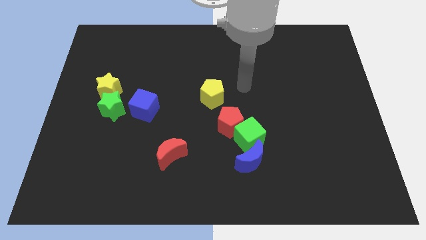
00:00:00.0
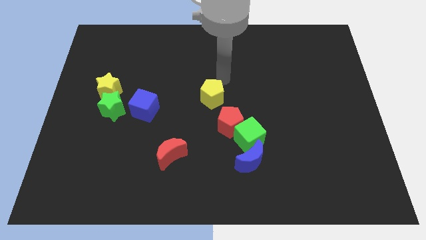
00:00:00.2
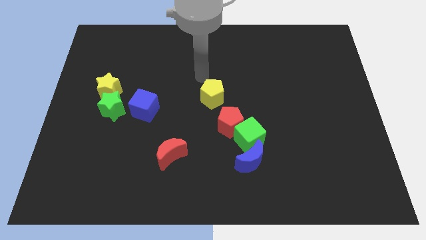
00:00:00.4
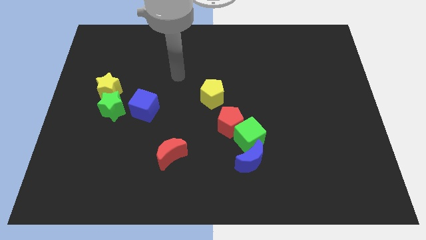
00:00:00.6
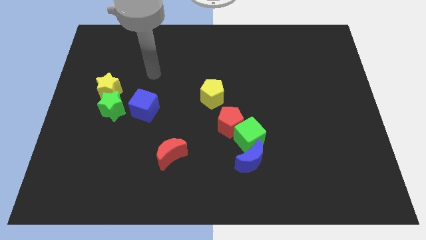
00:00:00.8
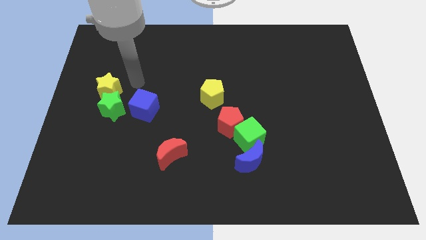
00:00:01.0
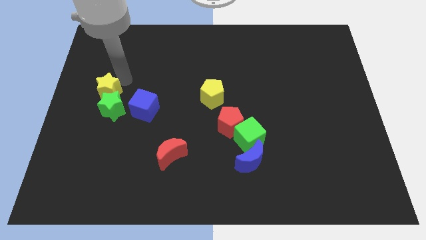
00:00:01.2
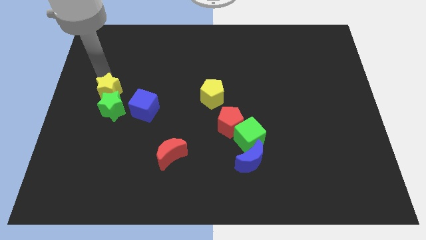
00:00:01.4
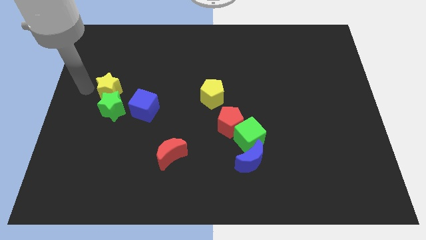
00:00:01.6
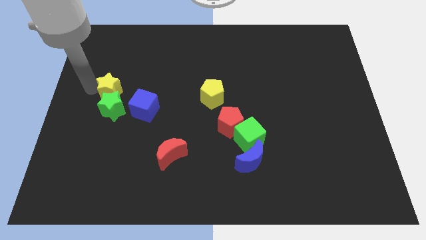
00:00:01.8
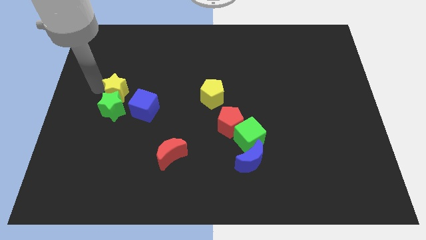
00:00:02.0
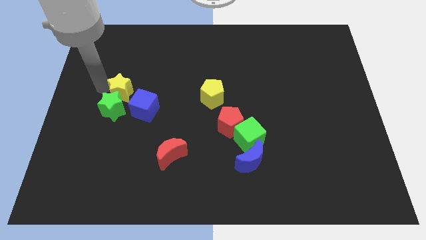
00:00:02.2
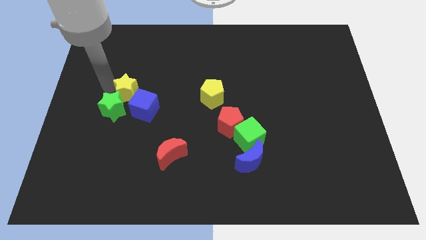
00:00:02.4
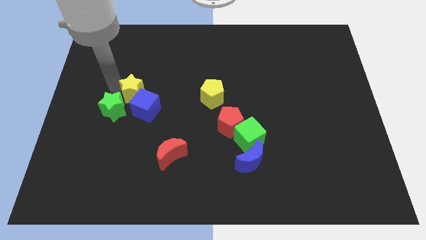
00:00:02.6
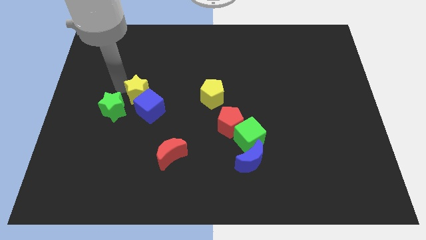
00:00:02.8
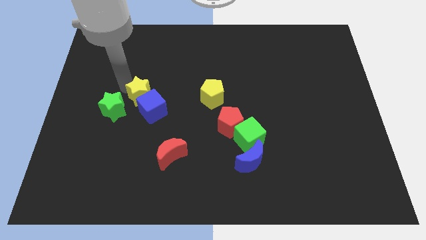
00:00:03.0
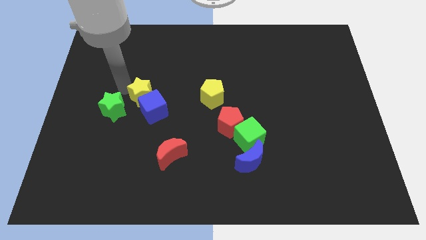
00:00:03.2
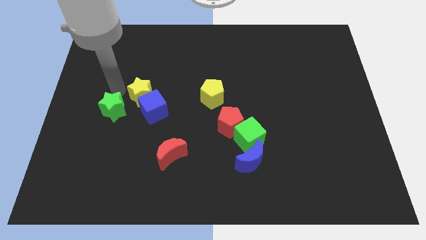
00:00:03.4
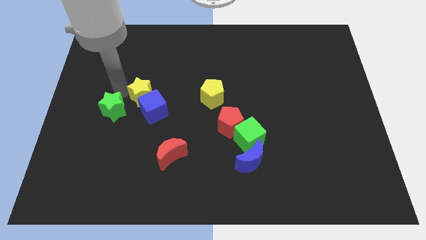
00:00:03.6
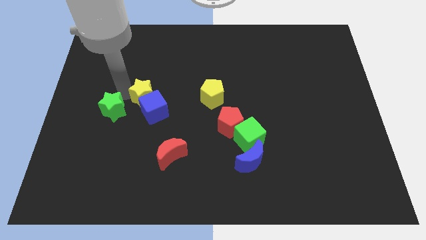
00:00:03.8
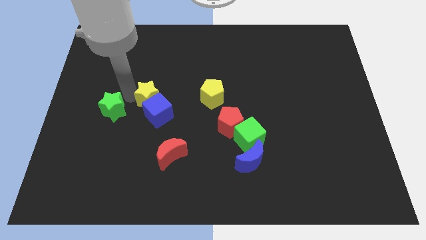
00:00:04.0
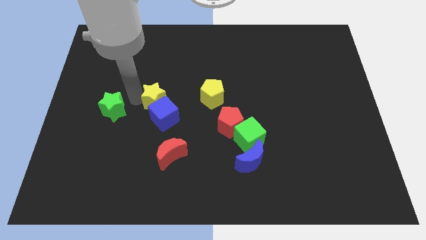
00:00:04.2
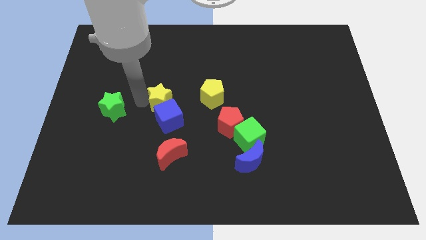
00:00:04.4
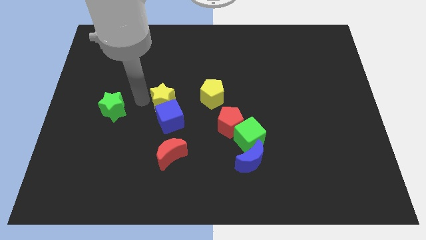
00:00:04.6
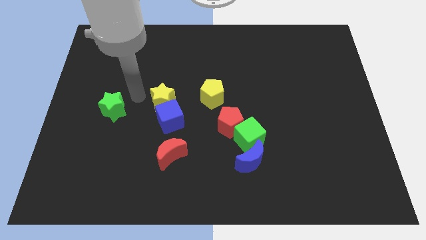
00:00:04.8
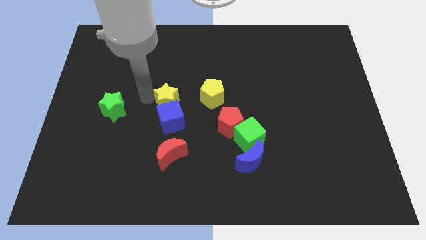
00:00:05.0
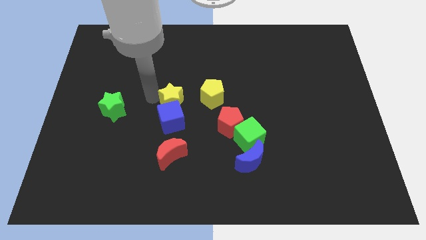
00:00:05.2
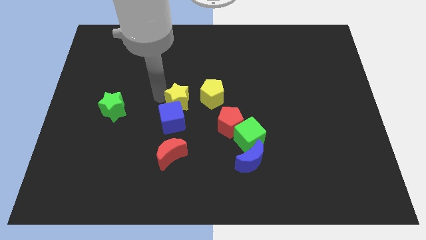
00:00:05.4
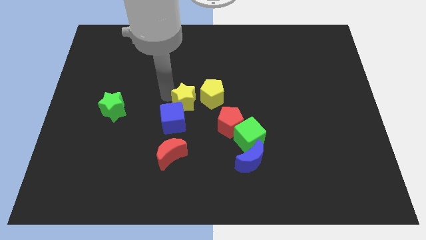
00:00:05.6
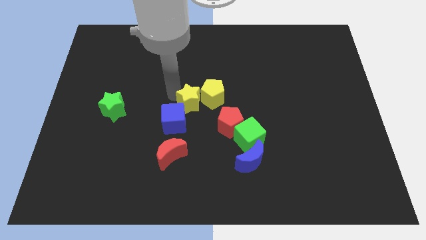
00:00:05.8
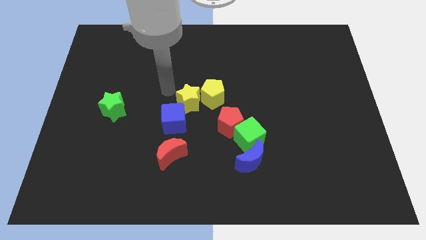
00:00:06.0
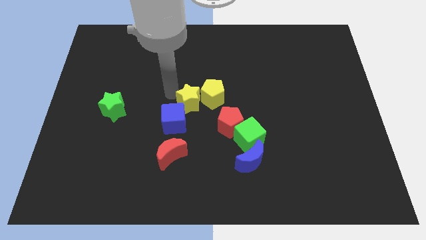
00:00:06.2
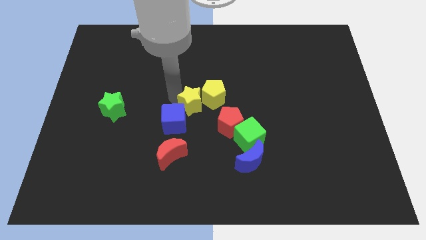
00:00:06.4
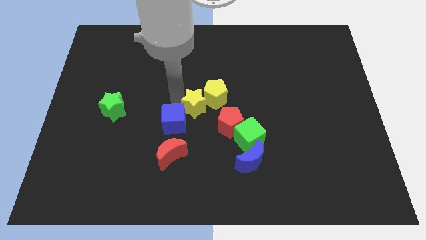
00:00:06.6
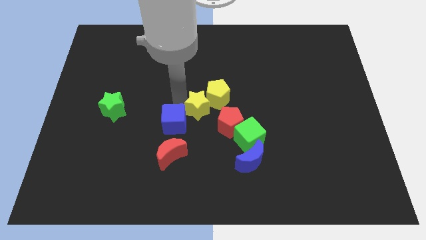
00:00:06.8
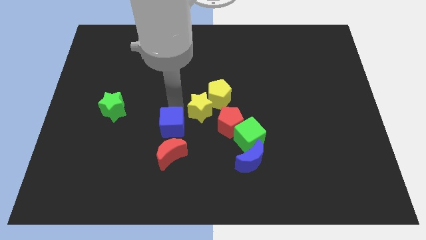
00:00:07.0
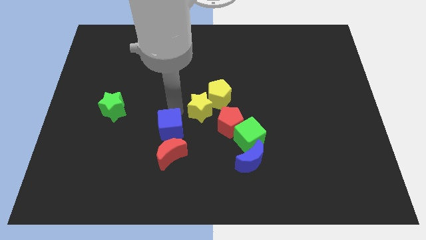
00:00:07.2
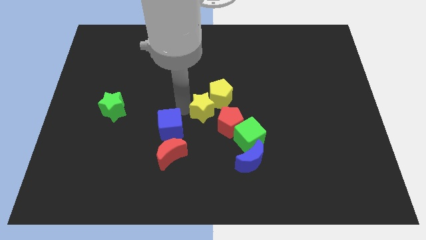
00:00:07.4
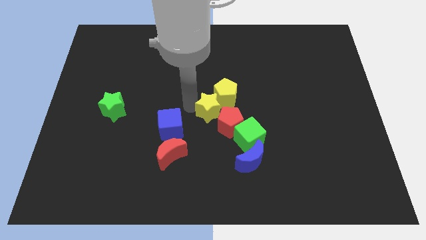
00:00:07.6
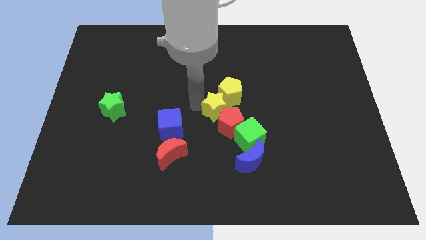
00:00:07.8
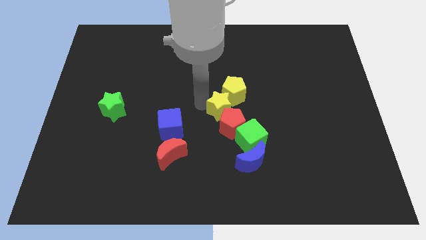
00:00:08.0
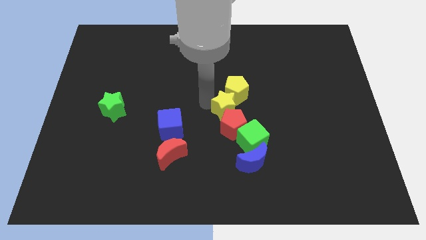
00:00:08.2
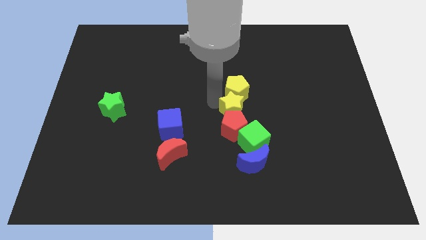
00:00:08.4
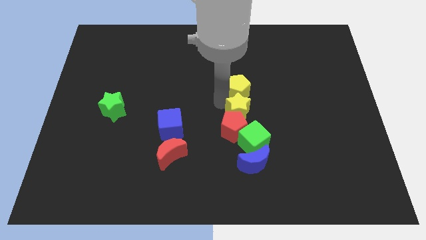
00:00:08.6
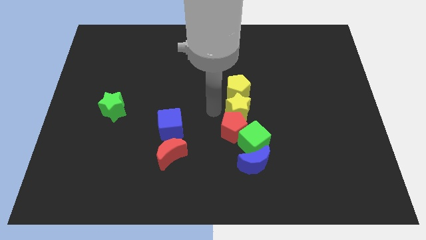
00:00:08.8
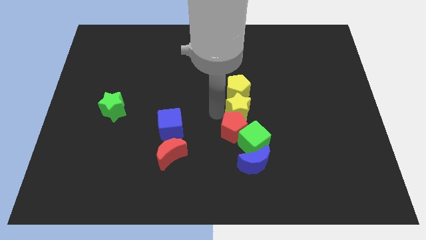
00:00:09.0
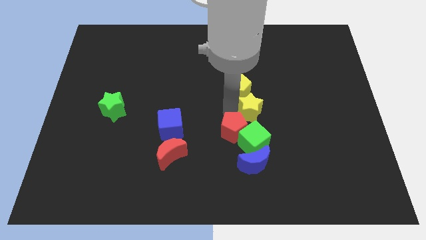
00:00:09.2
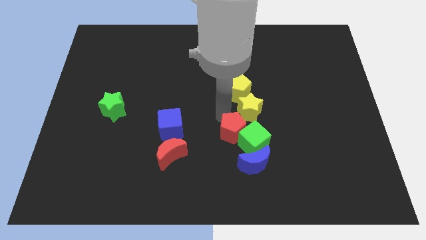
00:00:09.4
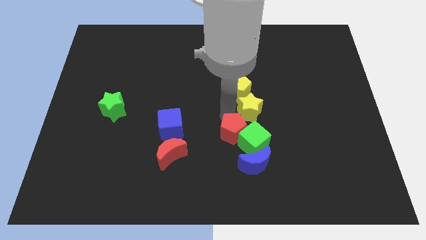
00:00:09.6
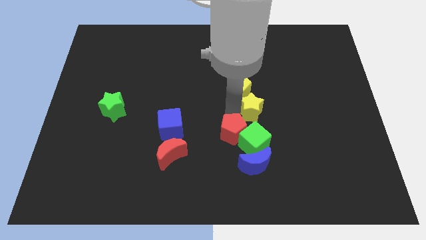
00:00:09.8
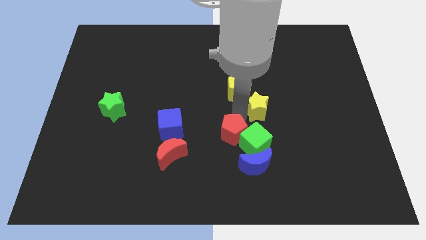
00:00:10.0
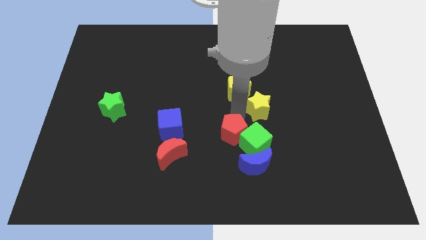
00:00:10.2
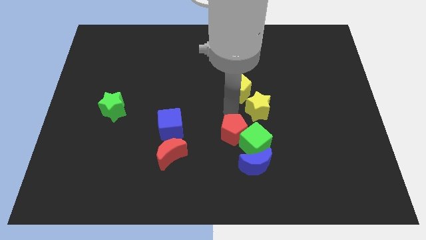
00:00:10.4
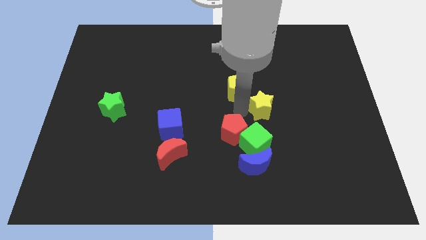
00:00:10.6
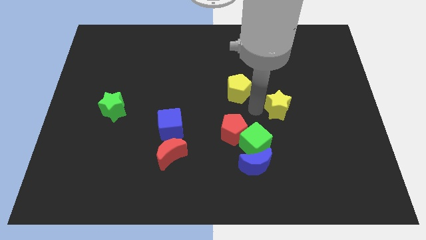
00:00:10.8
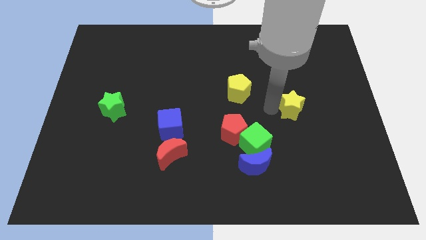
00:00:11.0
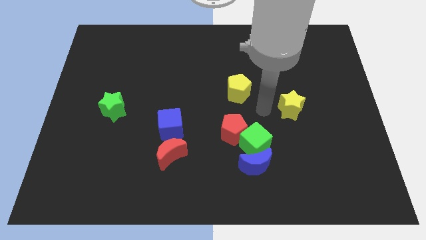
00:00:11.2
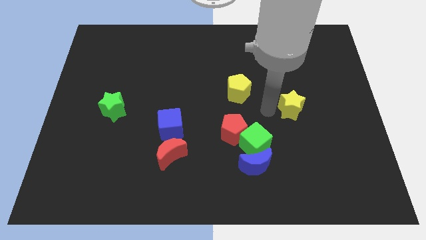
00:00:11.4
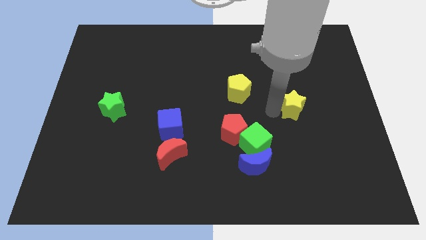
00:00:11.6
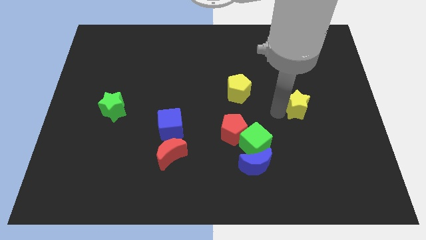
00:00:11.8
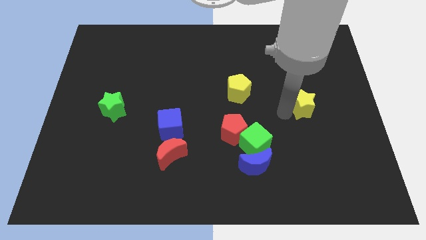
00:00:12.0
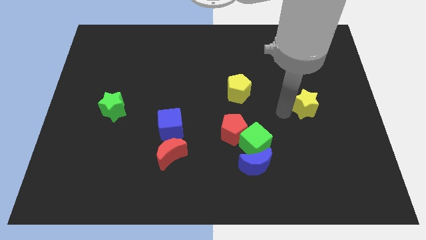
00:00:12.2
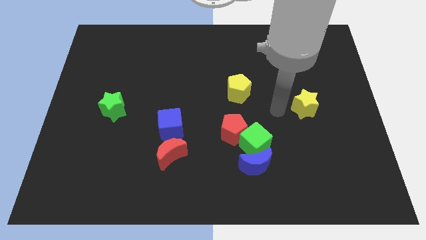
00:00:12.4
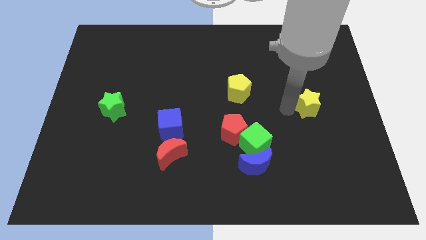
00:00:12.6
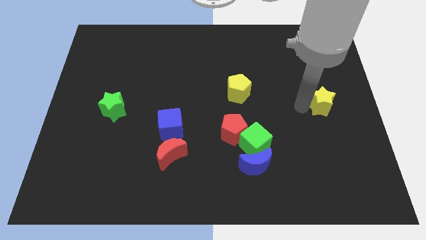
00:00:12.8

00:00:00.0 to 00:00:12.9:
push the yellow star to the right side

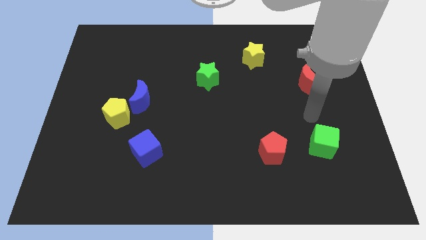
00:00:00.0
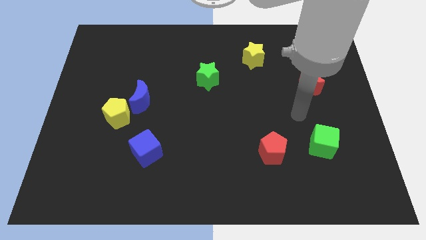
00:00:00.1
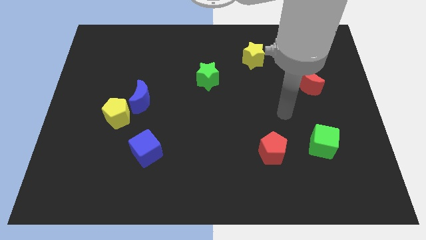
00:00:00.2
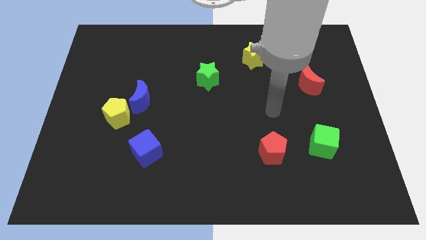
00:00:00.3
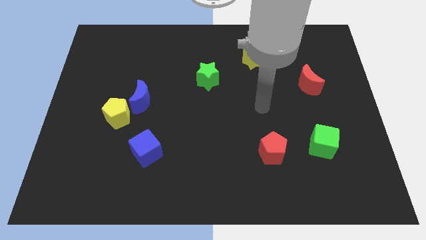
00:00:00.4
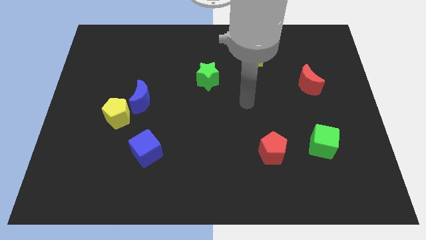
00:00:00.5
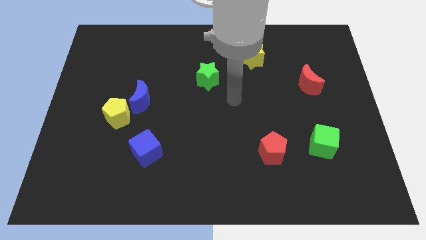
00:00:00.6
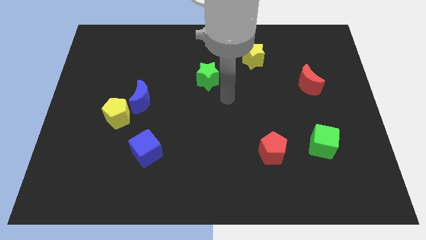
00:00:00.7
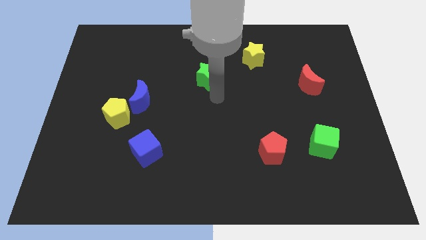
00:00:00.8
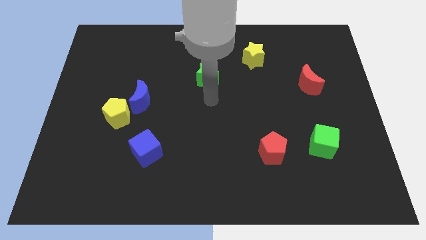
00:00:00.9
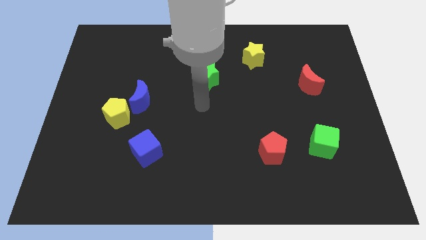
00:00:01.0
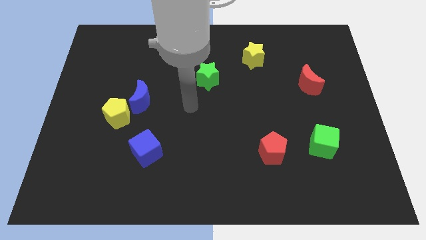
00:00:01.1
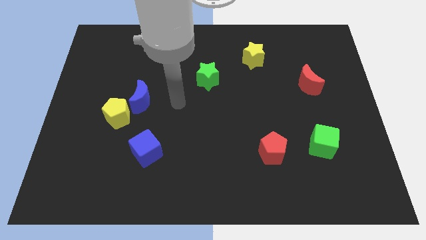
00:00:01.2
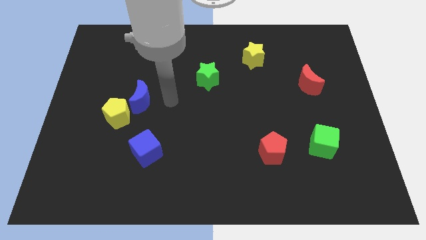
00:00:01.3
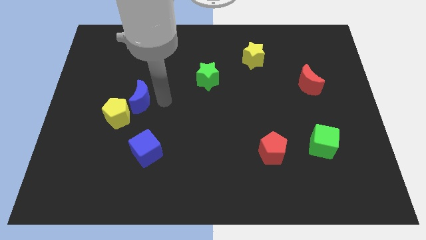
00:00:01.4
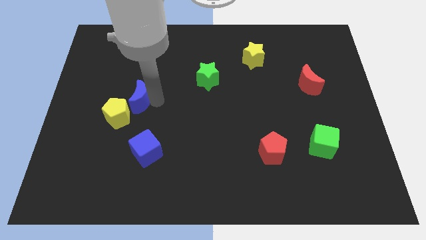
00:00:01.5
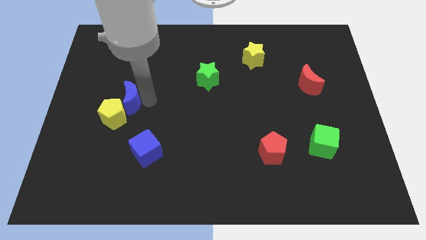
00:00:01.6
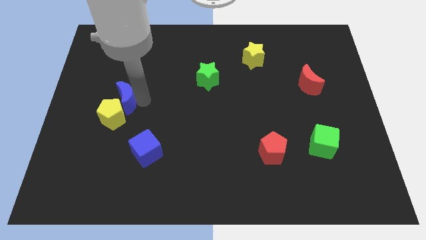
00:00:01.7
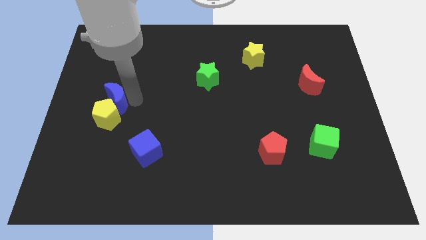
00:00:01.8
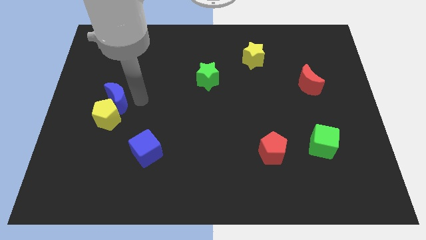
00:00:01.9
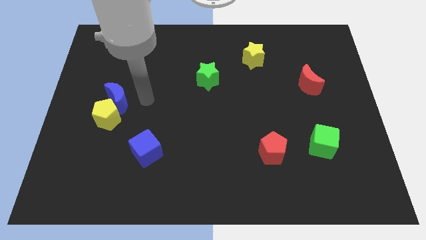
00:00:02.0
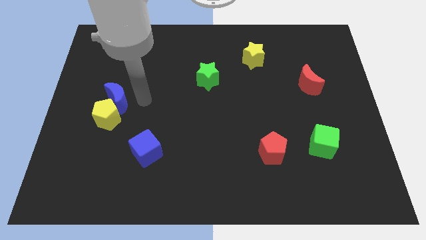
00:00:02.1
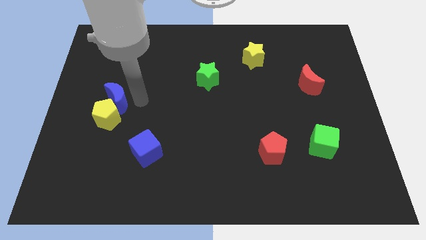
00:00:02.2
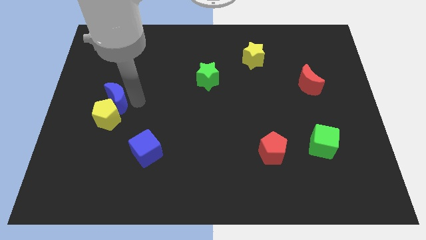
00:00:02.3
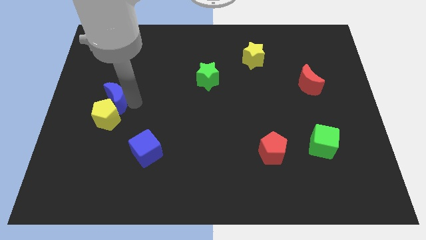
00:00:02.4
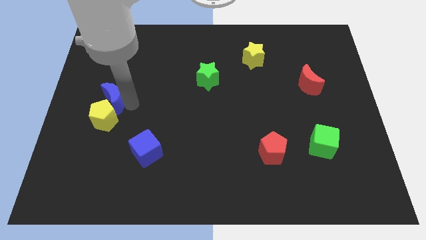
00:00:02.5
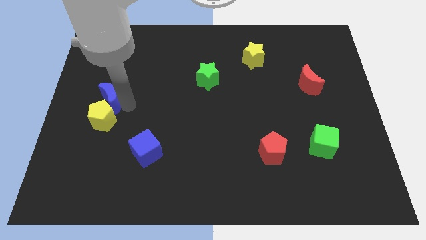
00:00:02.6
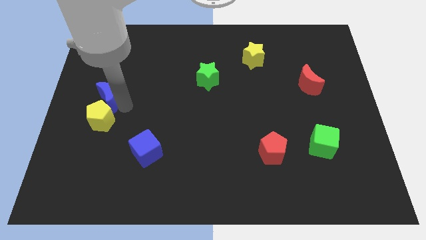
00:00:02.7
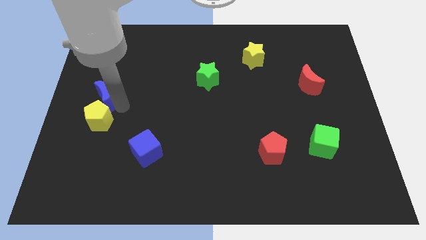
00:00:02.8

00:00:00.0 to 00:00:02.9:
slide the blue moon to the center left
